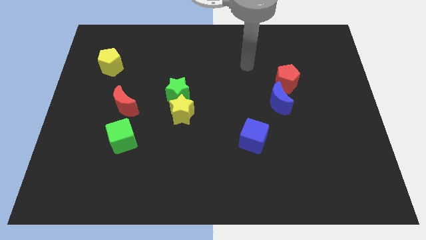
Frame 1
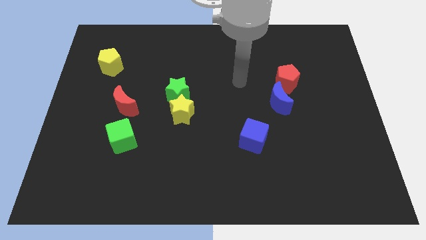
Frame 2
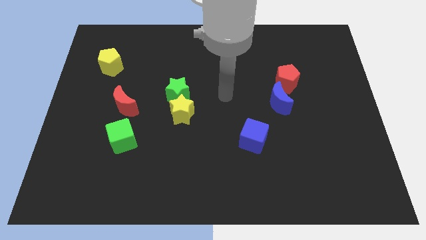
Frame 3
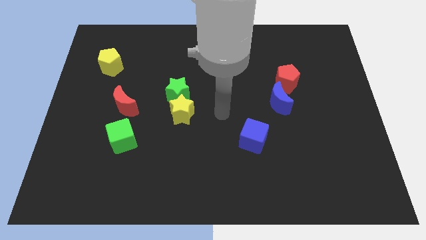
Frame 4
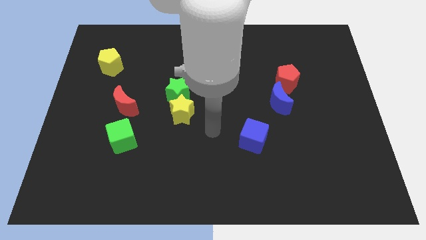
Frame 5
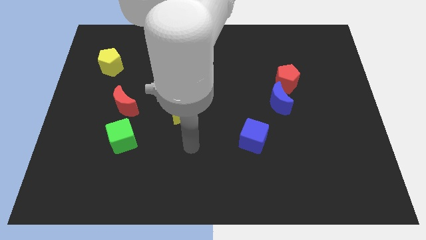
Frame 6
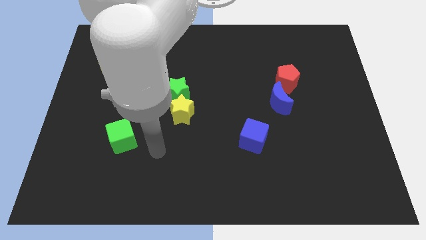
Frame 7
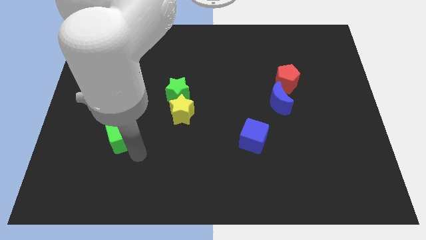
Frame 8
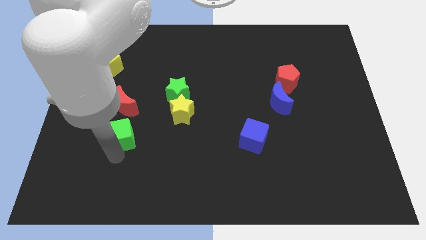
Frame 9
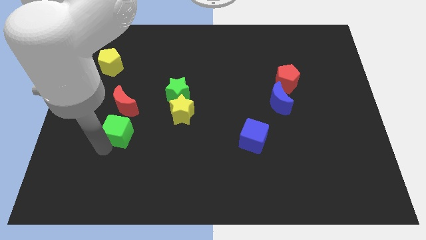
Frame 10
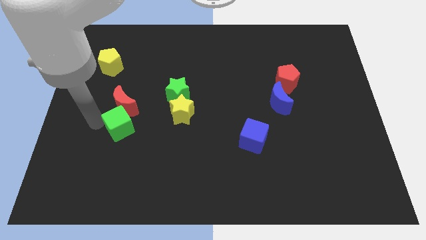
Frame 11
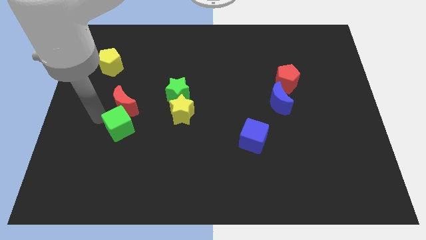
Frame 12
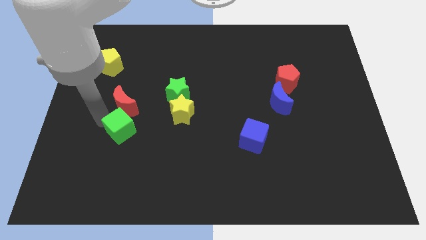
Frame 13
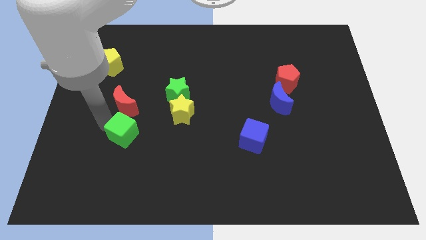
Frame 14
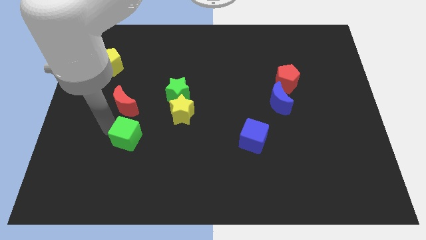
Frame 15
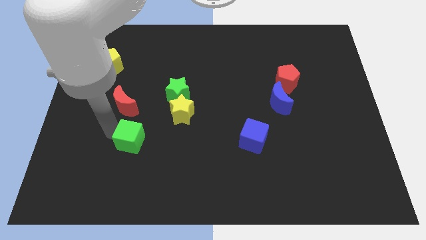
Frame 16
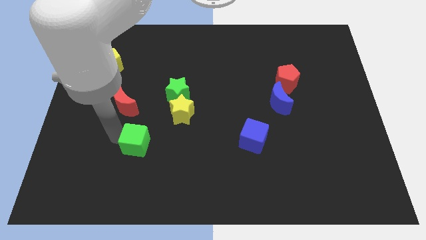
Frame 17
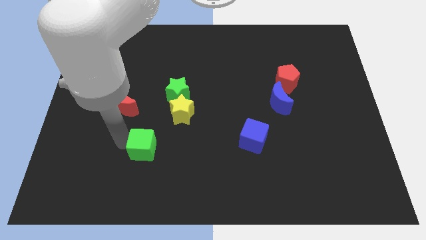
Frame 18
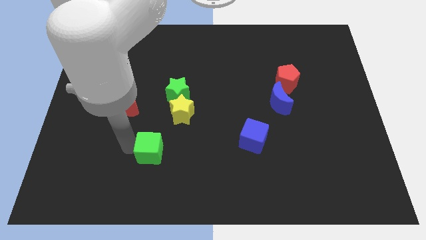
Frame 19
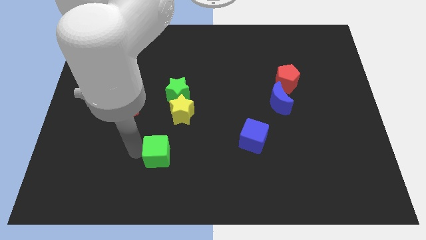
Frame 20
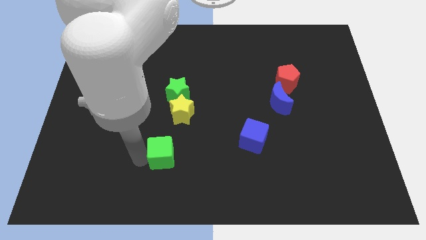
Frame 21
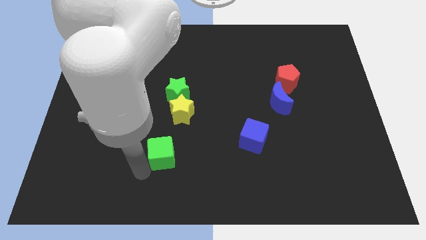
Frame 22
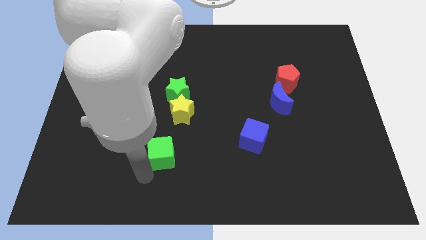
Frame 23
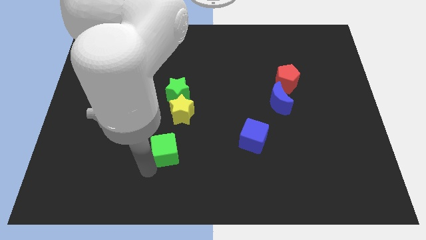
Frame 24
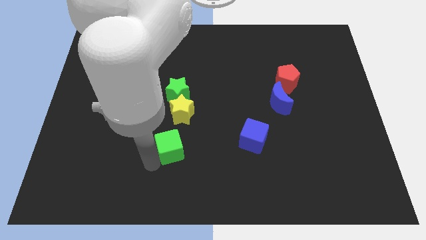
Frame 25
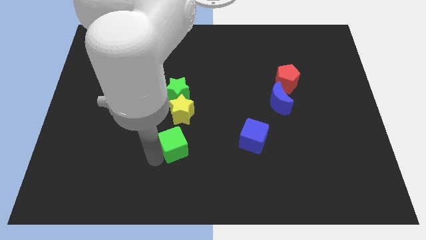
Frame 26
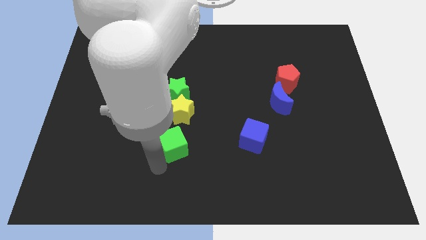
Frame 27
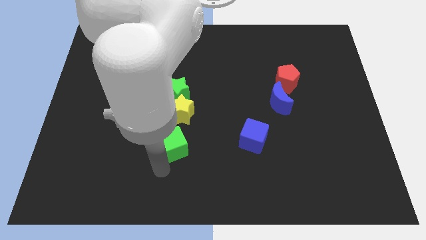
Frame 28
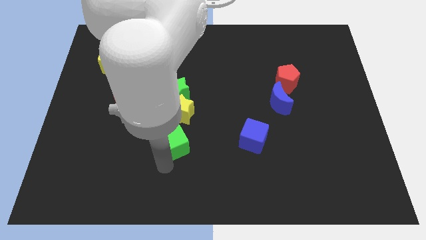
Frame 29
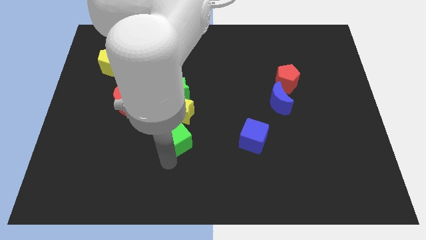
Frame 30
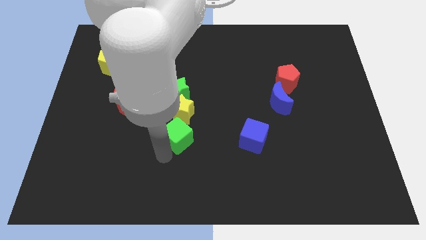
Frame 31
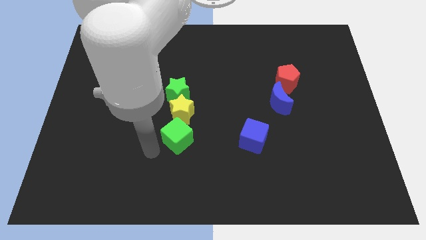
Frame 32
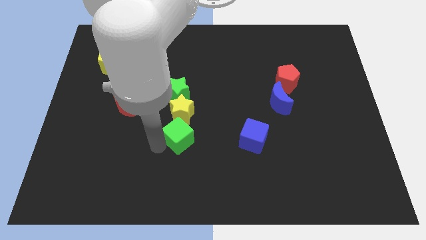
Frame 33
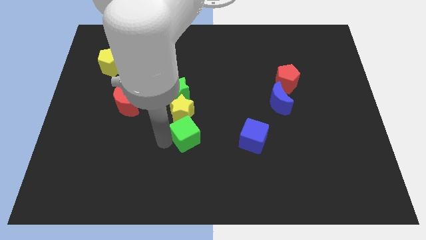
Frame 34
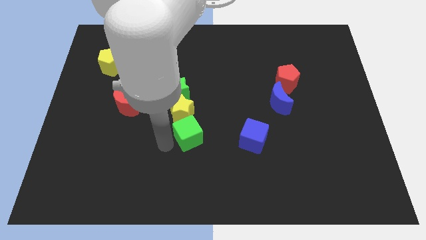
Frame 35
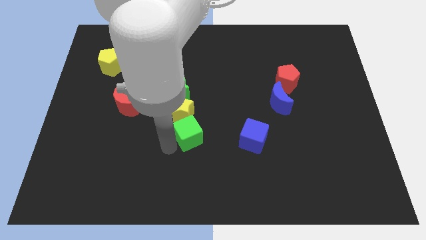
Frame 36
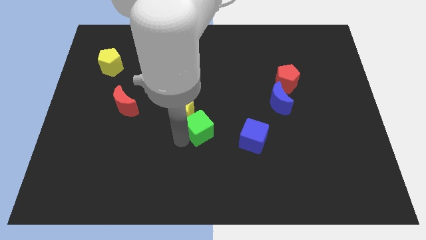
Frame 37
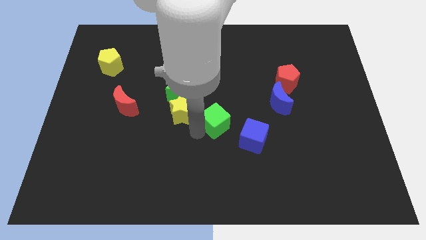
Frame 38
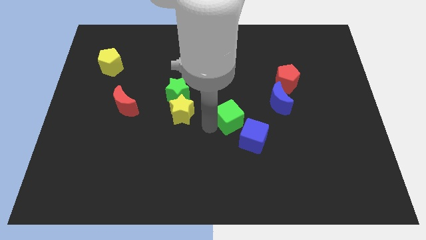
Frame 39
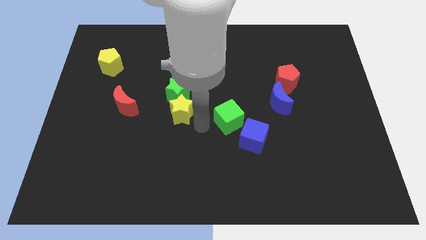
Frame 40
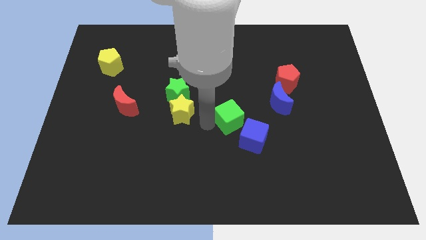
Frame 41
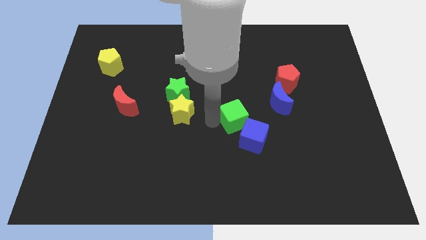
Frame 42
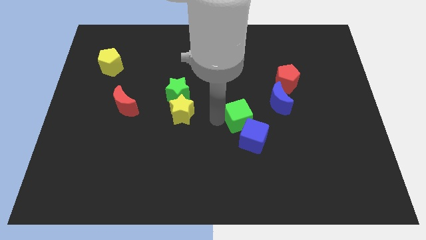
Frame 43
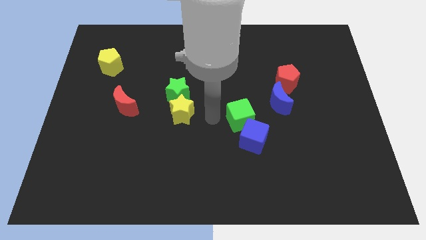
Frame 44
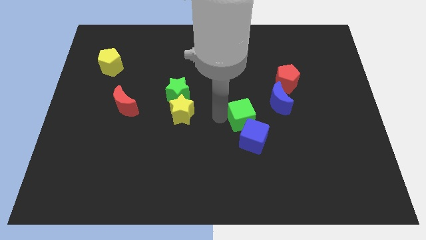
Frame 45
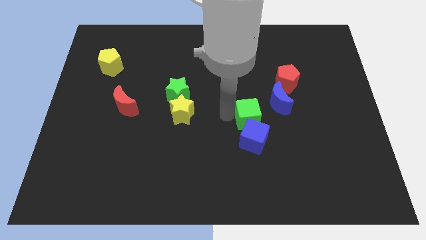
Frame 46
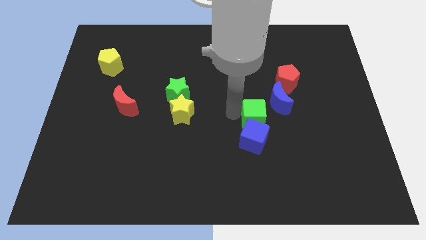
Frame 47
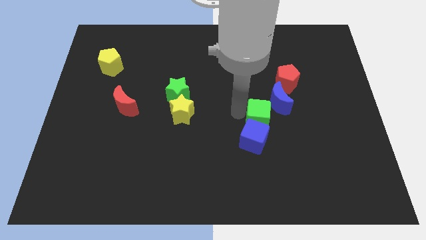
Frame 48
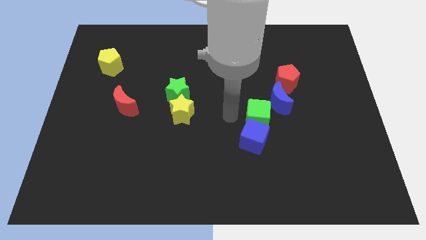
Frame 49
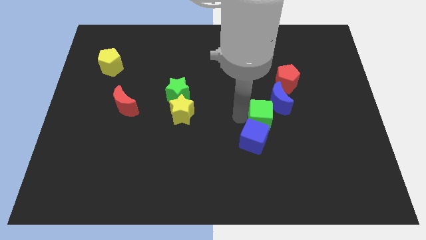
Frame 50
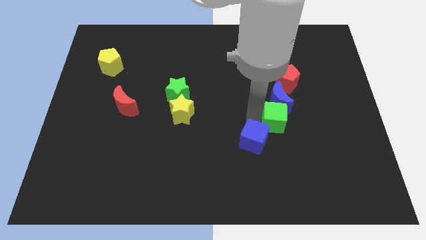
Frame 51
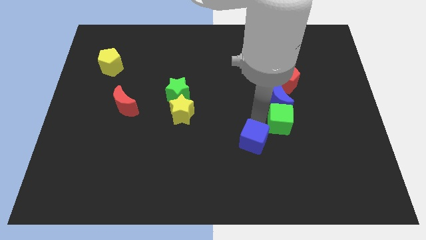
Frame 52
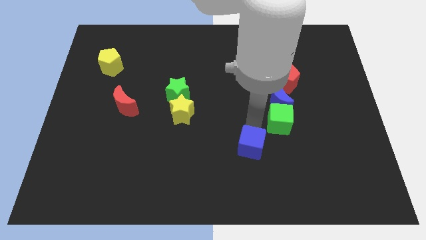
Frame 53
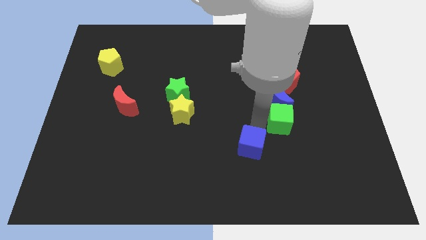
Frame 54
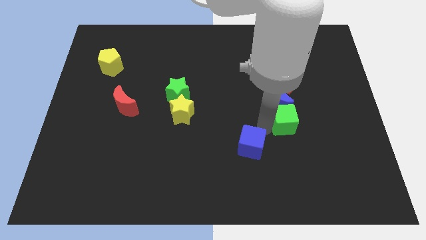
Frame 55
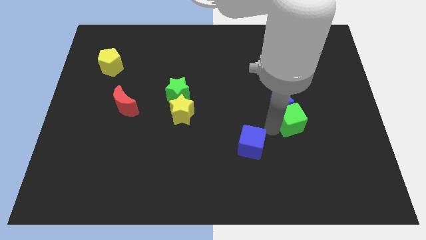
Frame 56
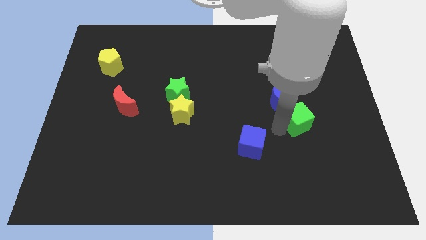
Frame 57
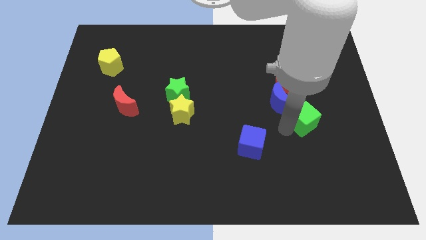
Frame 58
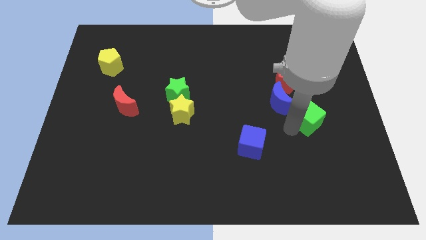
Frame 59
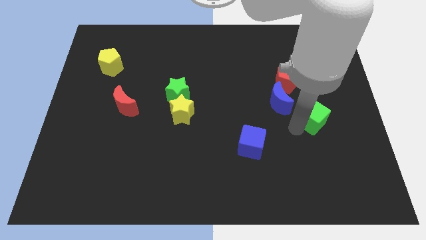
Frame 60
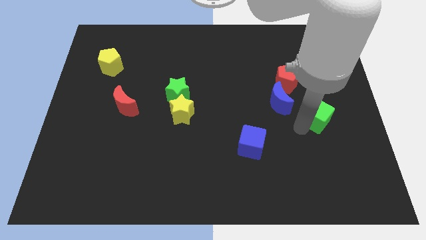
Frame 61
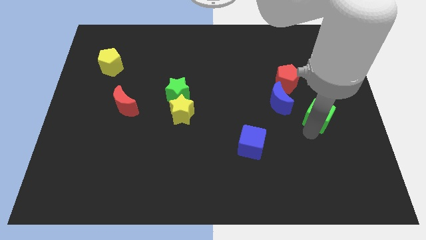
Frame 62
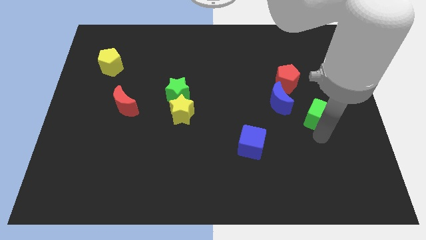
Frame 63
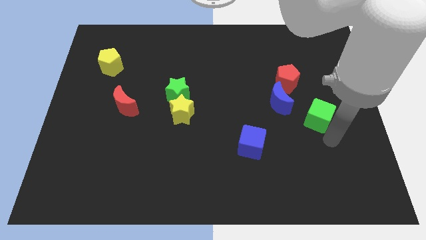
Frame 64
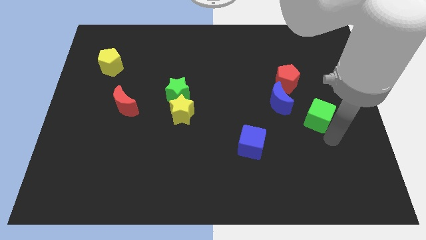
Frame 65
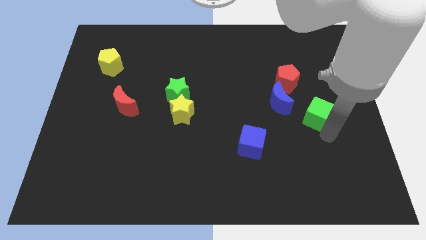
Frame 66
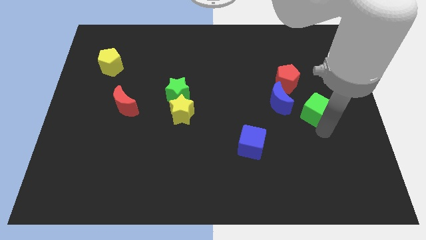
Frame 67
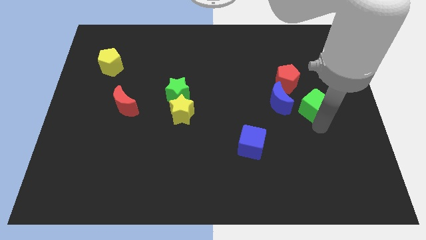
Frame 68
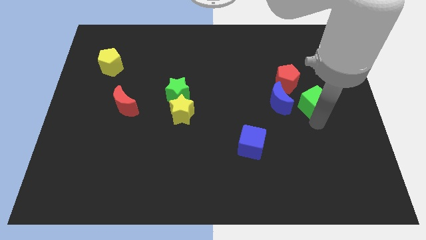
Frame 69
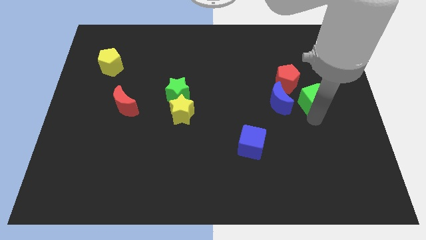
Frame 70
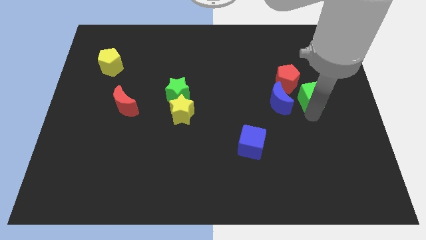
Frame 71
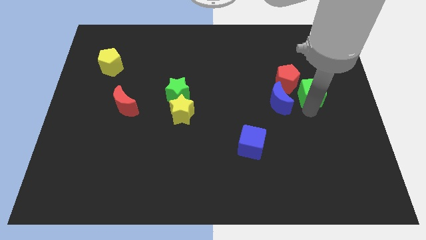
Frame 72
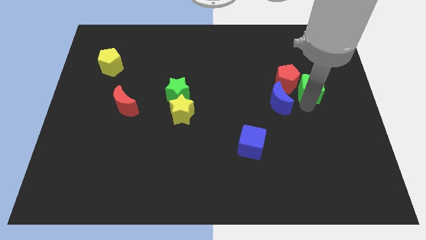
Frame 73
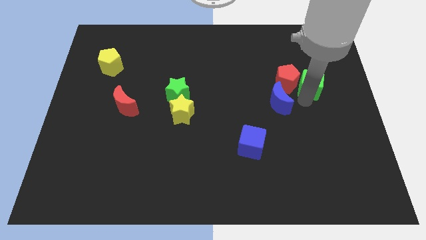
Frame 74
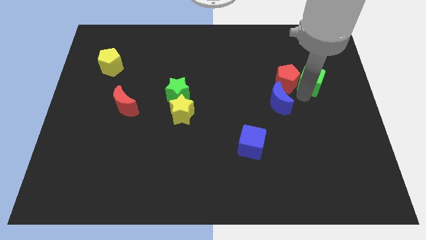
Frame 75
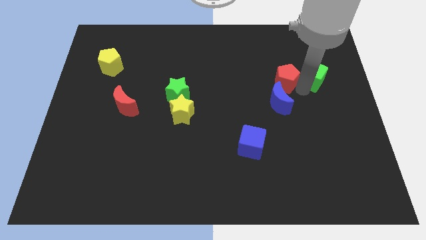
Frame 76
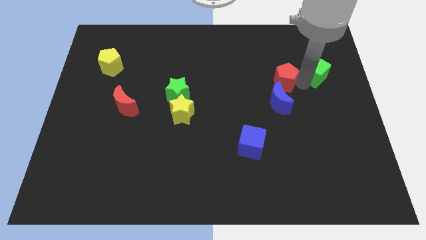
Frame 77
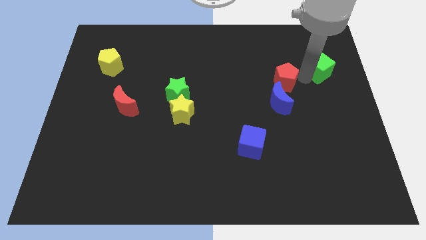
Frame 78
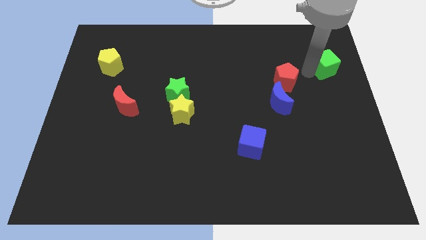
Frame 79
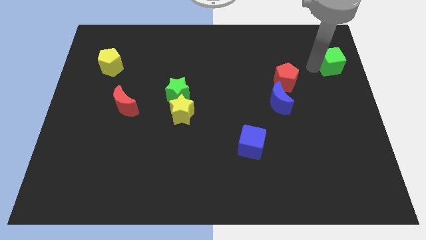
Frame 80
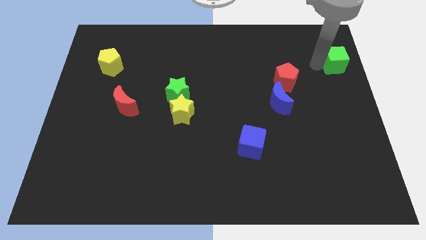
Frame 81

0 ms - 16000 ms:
push the green cube to the right side of the board
